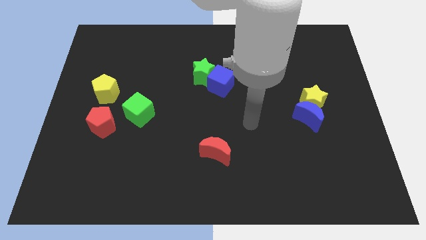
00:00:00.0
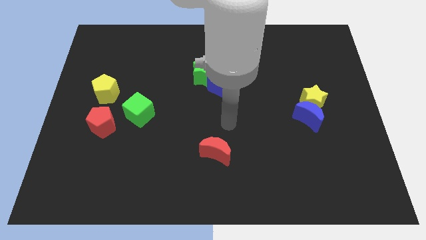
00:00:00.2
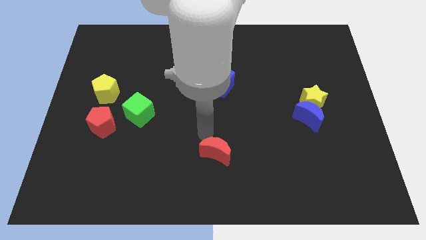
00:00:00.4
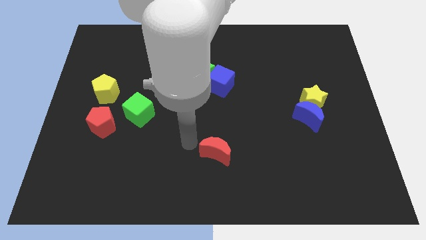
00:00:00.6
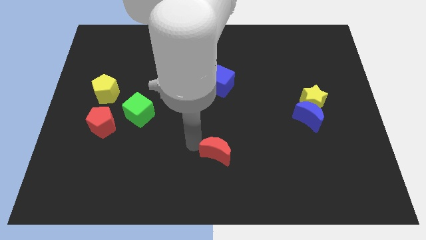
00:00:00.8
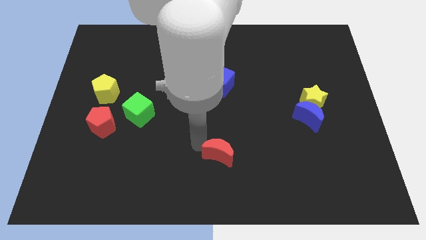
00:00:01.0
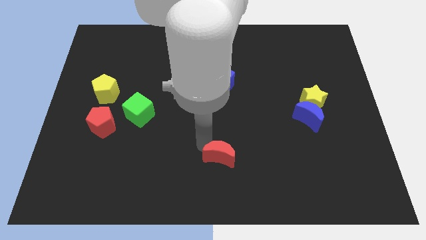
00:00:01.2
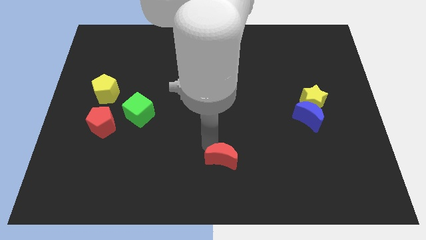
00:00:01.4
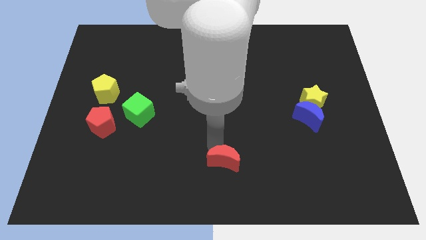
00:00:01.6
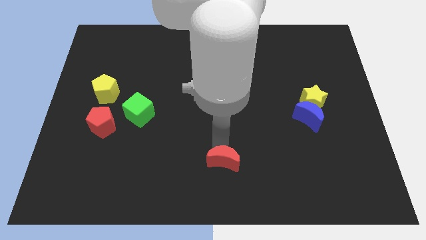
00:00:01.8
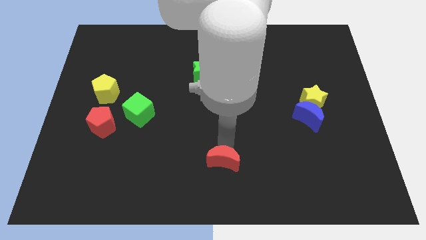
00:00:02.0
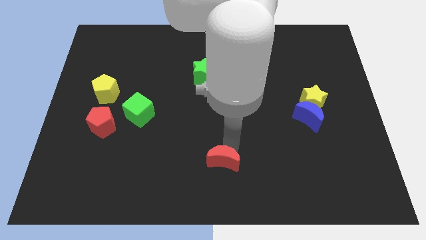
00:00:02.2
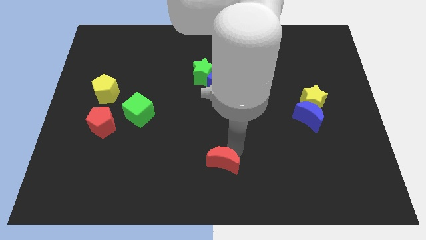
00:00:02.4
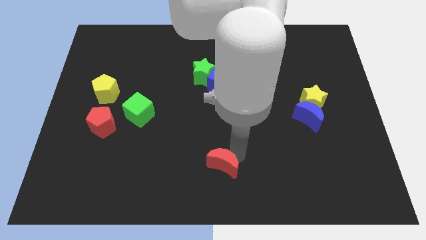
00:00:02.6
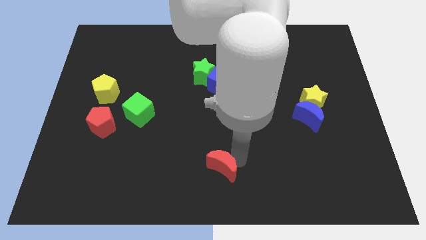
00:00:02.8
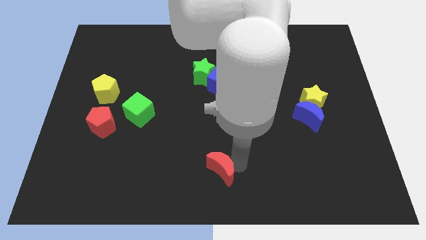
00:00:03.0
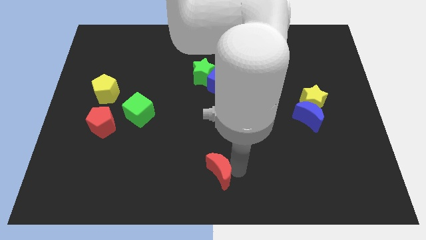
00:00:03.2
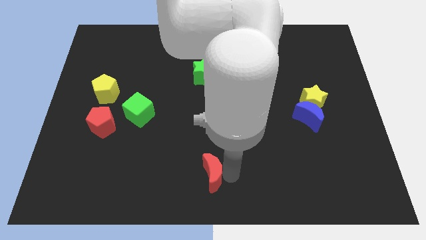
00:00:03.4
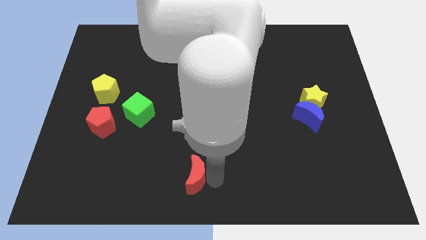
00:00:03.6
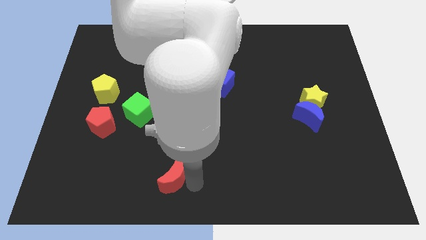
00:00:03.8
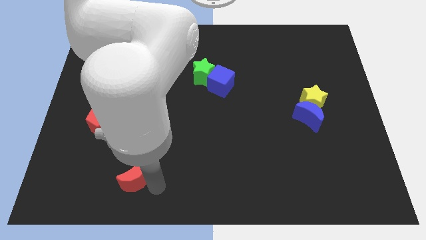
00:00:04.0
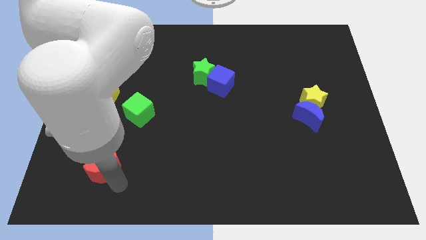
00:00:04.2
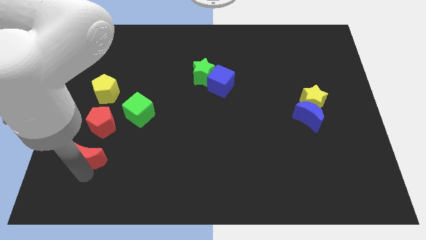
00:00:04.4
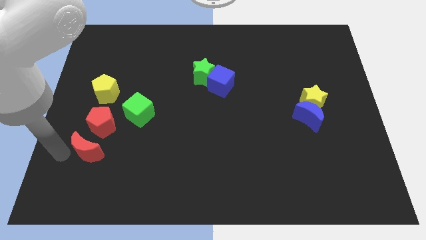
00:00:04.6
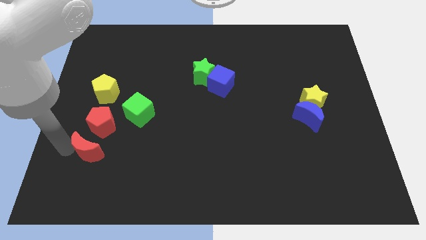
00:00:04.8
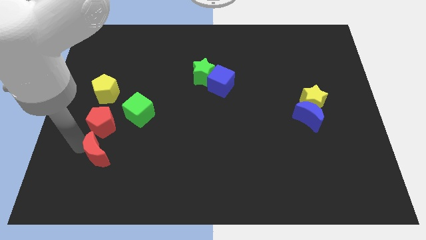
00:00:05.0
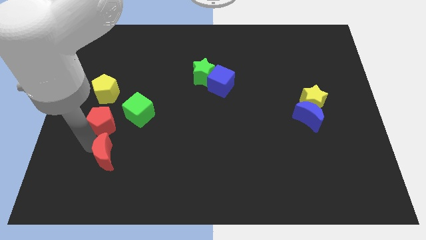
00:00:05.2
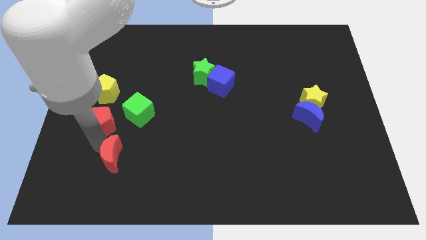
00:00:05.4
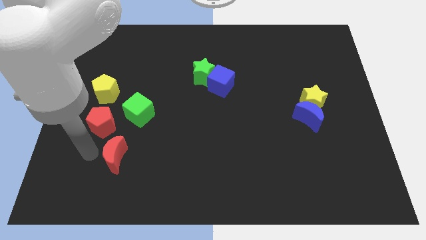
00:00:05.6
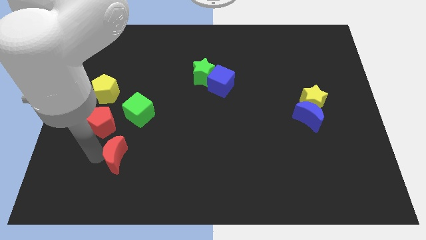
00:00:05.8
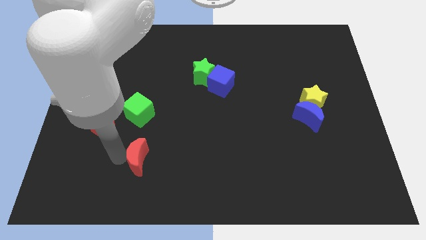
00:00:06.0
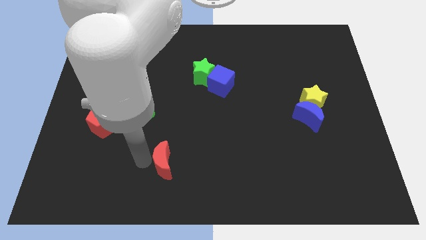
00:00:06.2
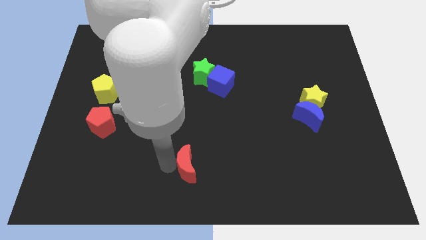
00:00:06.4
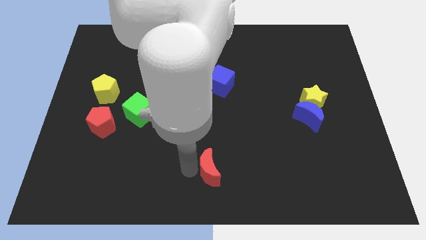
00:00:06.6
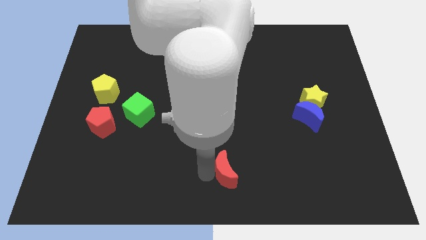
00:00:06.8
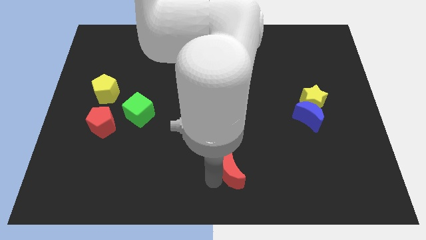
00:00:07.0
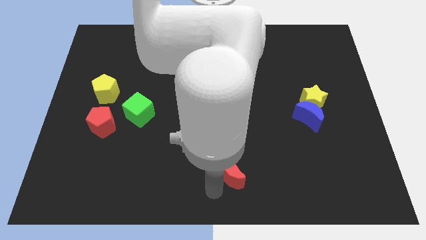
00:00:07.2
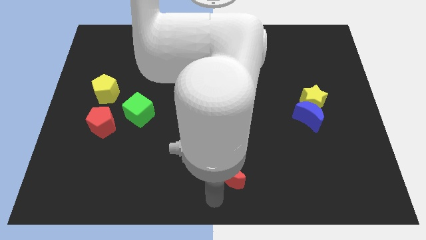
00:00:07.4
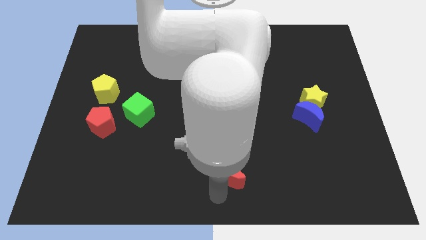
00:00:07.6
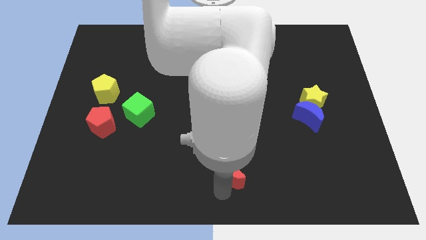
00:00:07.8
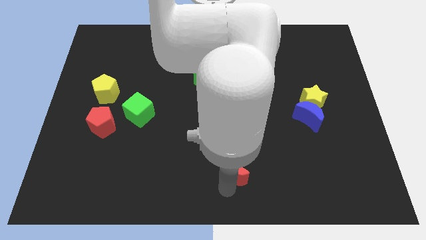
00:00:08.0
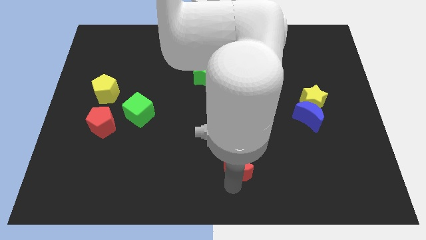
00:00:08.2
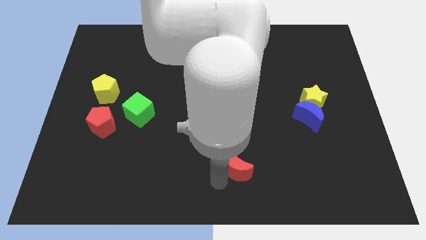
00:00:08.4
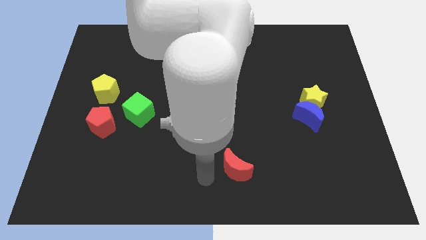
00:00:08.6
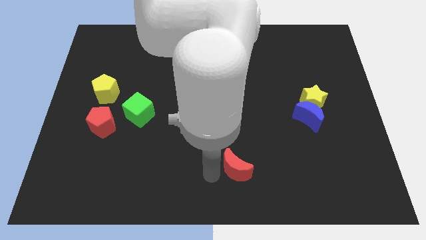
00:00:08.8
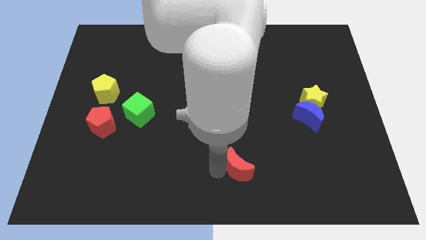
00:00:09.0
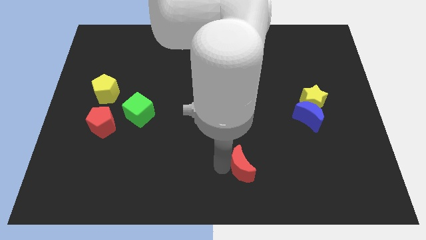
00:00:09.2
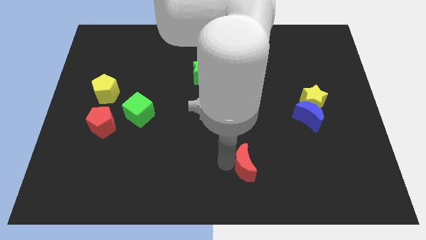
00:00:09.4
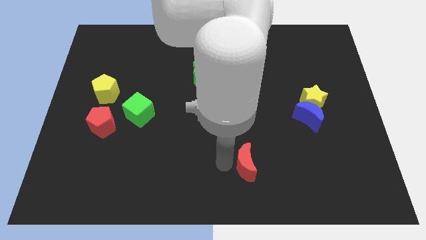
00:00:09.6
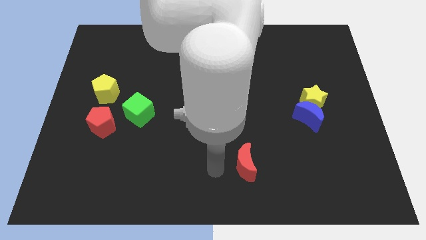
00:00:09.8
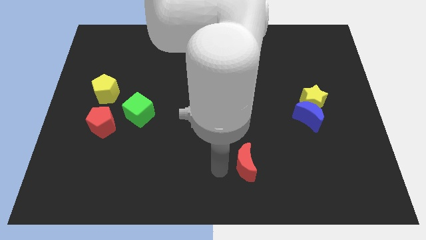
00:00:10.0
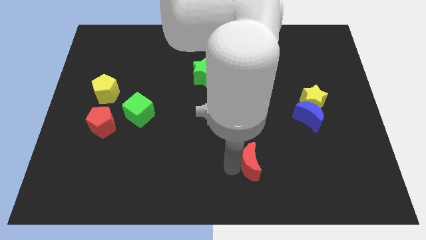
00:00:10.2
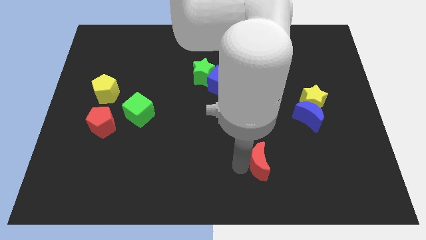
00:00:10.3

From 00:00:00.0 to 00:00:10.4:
push the red moon slightly to the right

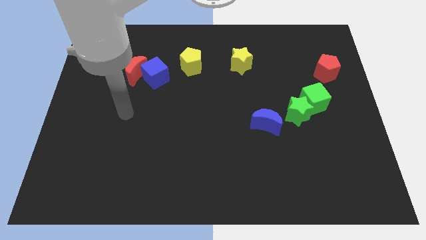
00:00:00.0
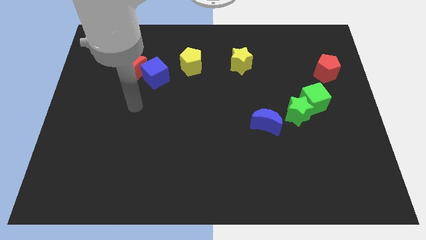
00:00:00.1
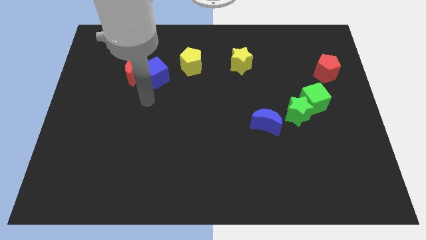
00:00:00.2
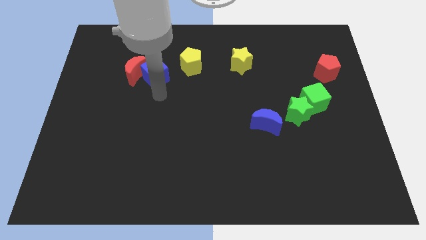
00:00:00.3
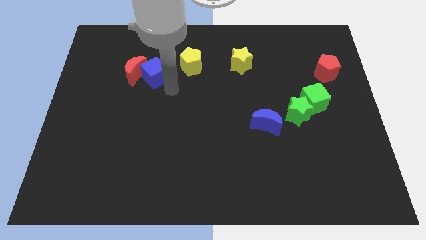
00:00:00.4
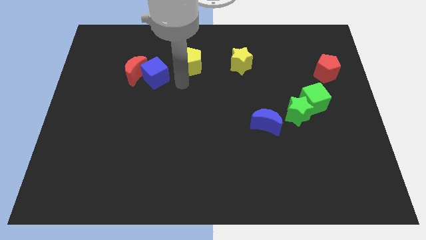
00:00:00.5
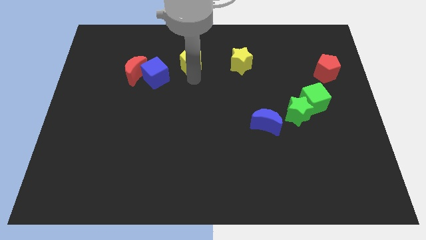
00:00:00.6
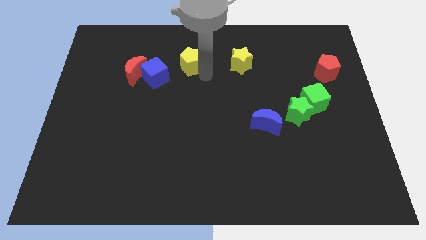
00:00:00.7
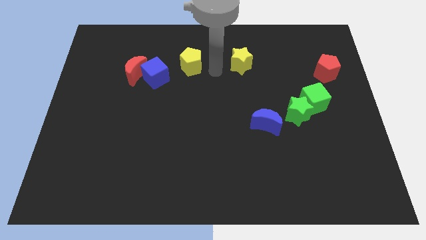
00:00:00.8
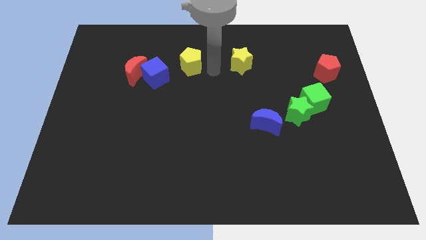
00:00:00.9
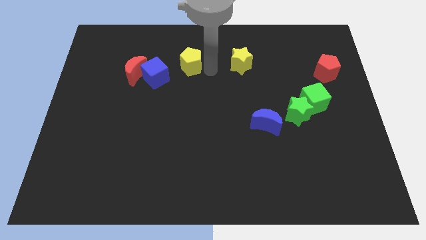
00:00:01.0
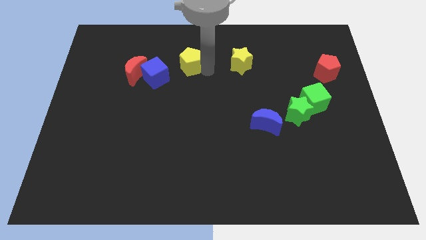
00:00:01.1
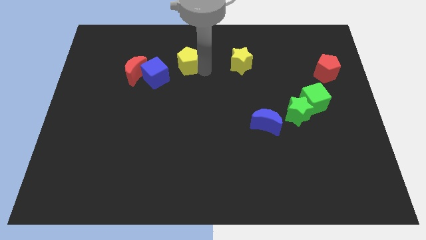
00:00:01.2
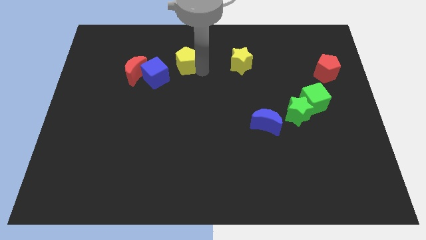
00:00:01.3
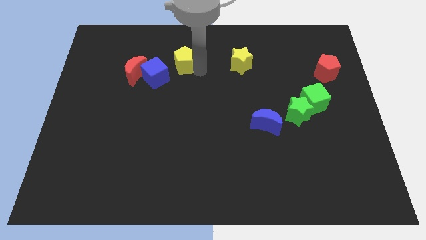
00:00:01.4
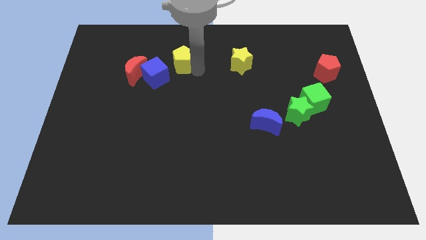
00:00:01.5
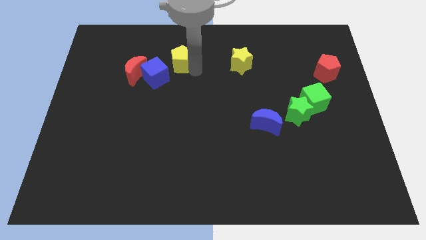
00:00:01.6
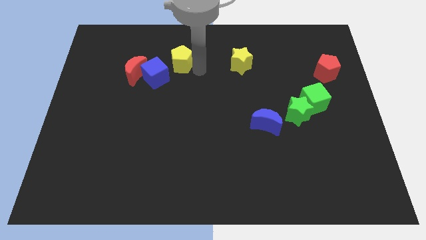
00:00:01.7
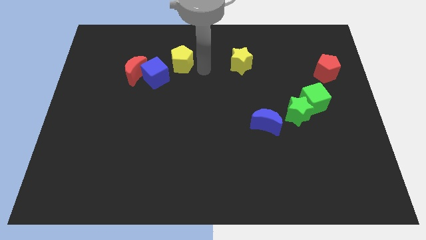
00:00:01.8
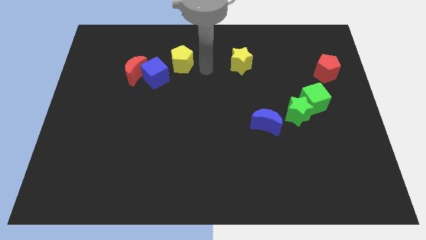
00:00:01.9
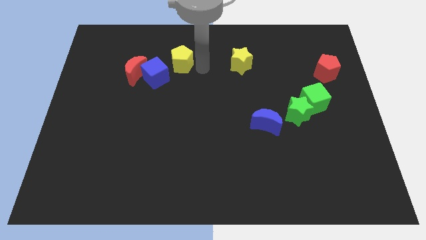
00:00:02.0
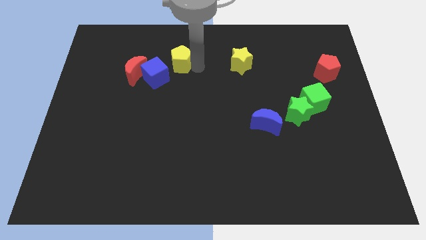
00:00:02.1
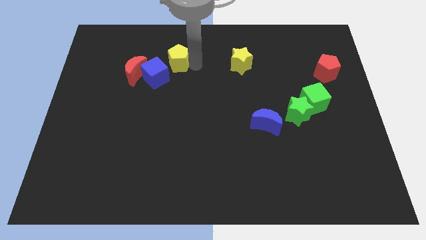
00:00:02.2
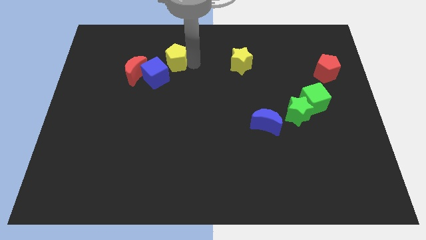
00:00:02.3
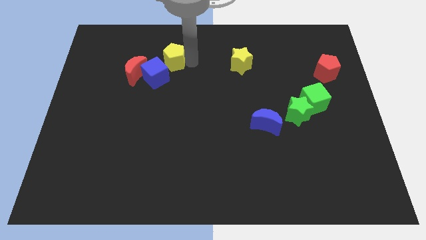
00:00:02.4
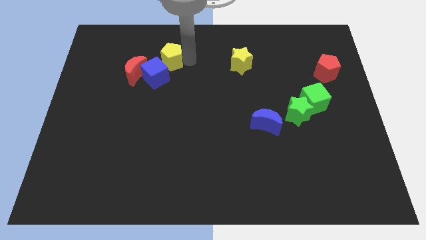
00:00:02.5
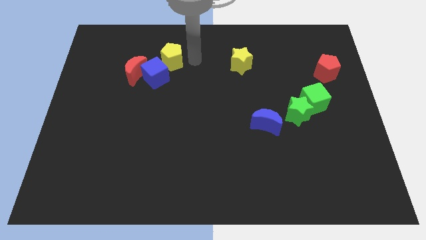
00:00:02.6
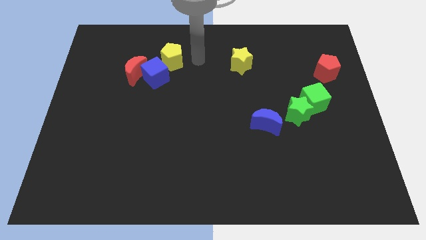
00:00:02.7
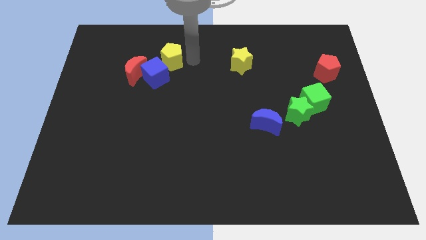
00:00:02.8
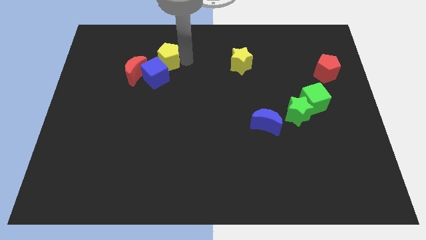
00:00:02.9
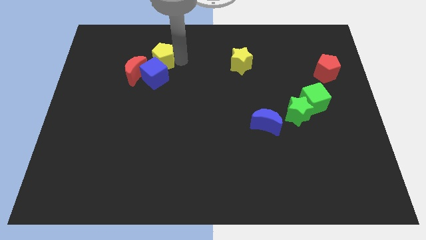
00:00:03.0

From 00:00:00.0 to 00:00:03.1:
slide the yellow pentagon a little to the left

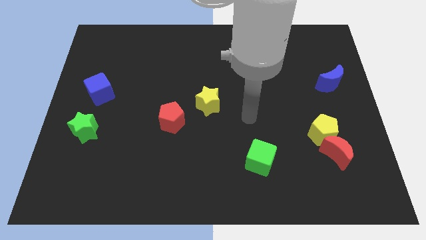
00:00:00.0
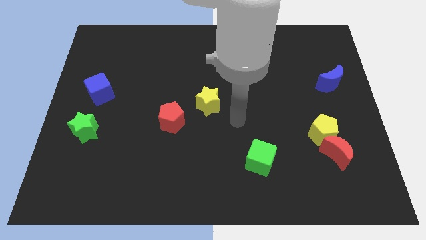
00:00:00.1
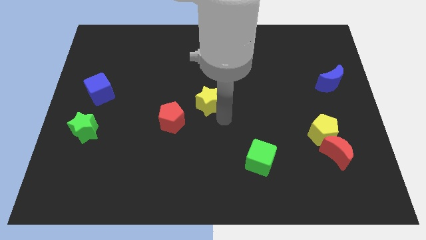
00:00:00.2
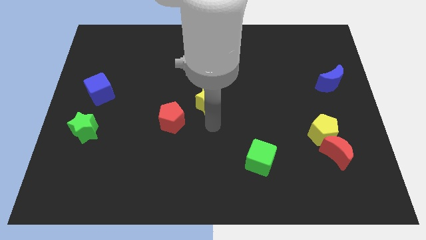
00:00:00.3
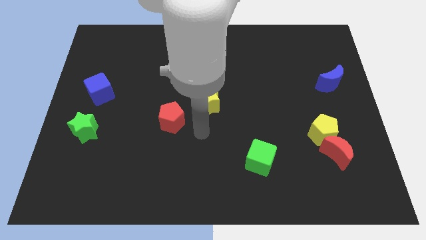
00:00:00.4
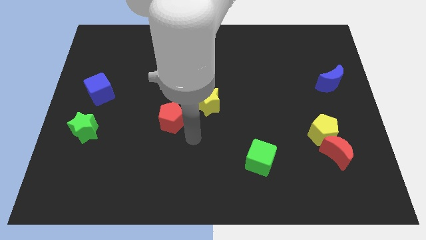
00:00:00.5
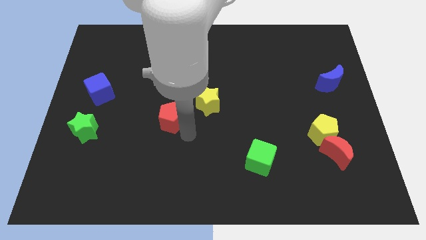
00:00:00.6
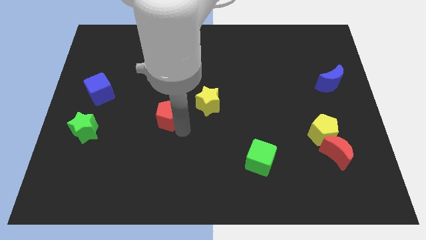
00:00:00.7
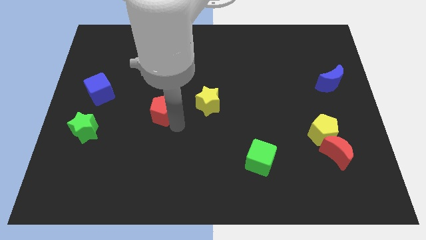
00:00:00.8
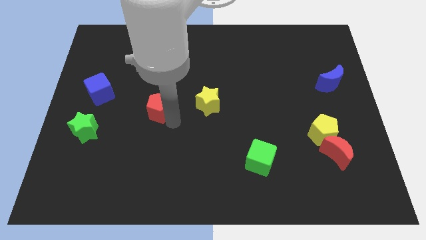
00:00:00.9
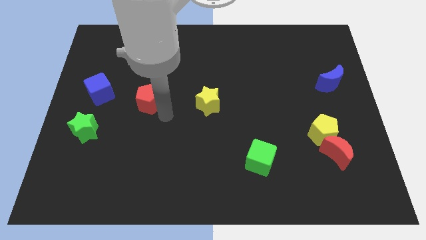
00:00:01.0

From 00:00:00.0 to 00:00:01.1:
slide the red pentagon a bit upwards and then left
